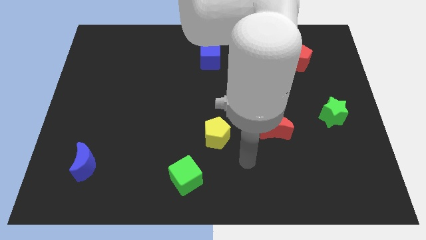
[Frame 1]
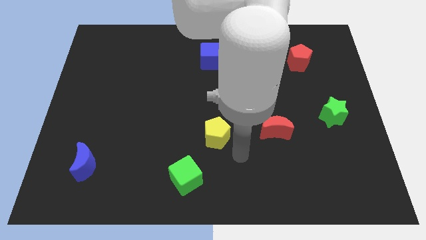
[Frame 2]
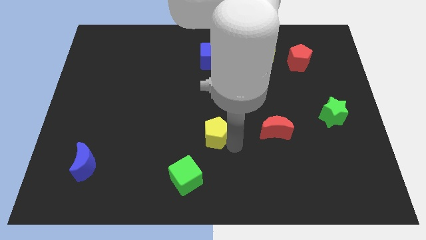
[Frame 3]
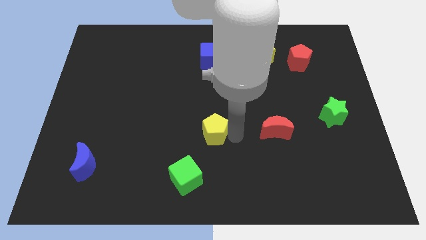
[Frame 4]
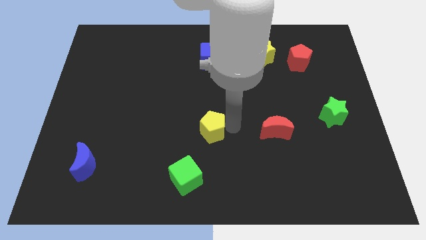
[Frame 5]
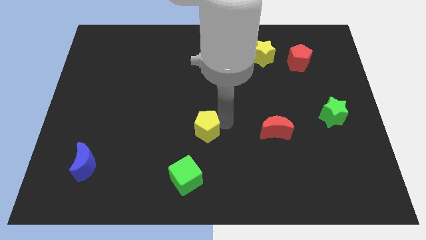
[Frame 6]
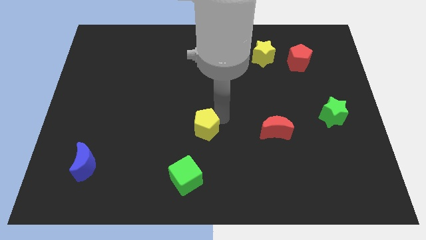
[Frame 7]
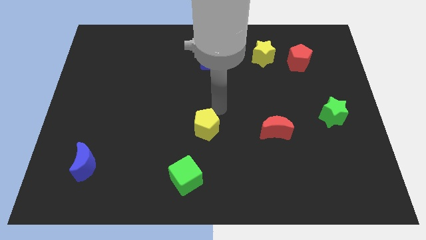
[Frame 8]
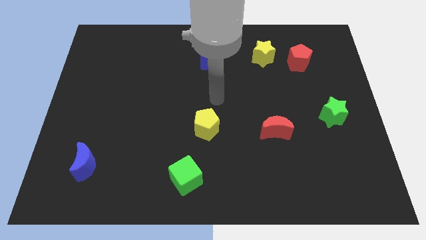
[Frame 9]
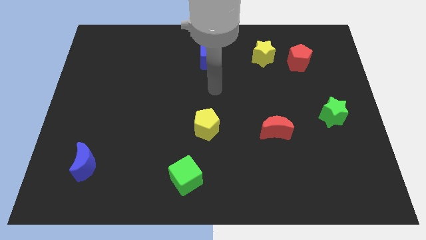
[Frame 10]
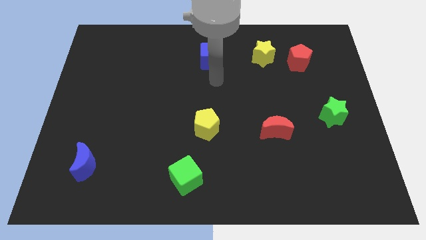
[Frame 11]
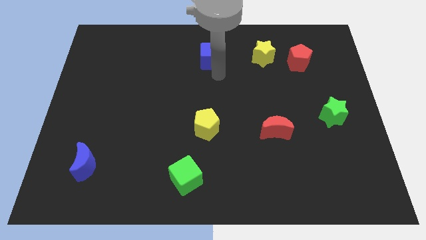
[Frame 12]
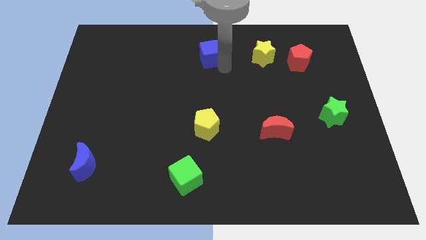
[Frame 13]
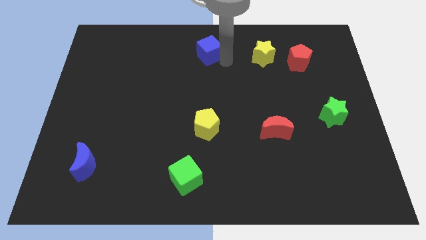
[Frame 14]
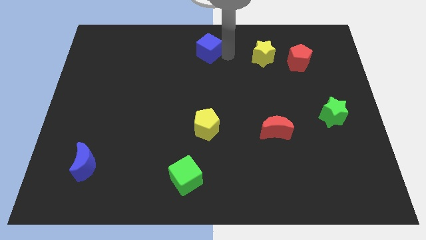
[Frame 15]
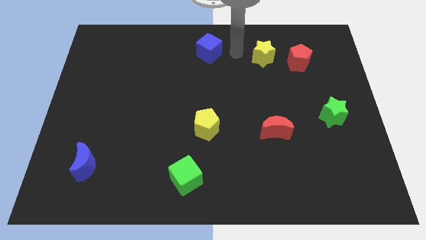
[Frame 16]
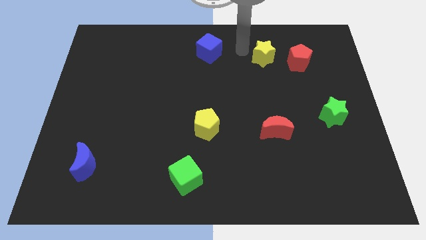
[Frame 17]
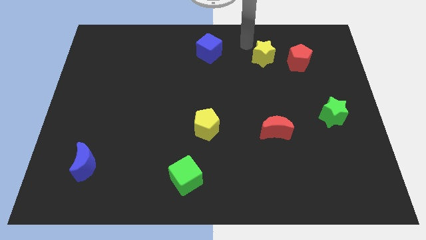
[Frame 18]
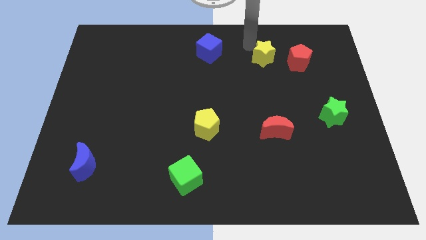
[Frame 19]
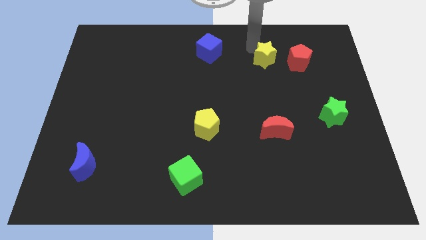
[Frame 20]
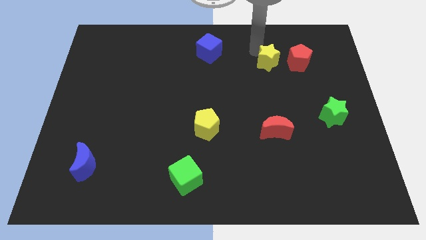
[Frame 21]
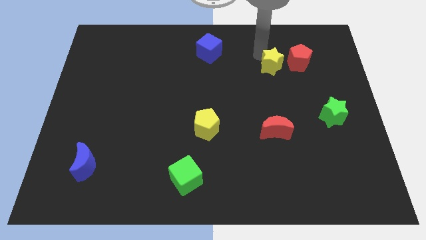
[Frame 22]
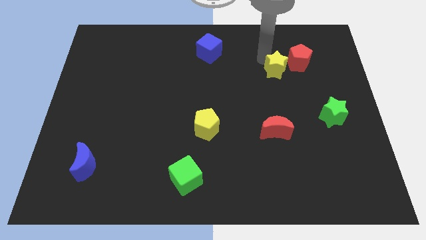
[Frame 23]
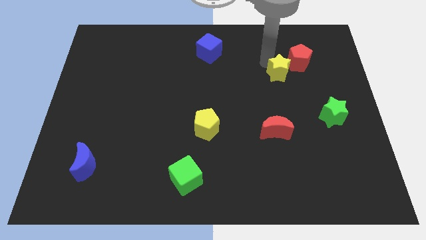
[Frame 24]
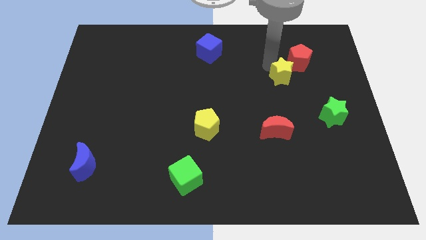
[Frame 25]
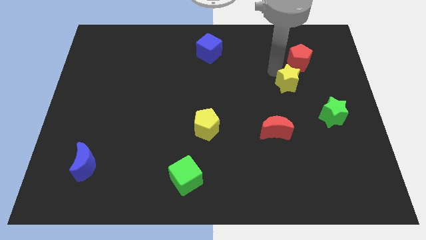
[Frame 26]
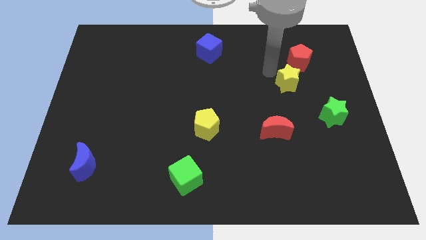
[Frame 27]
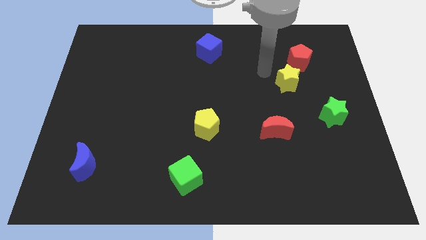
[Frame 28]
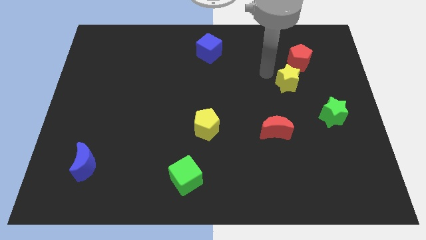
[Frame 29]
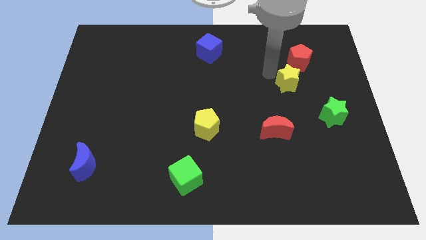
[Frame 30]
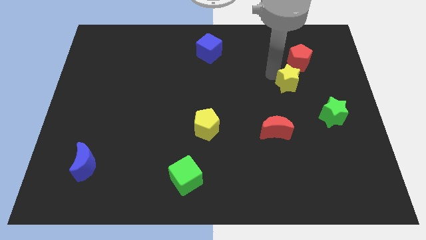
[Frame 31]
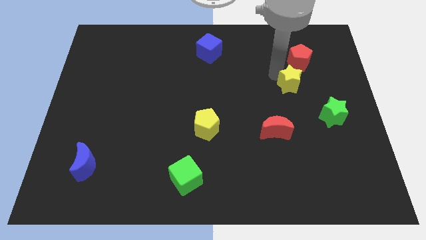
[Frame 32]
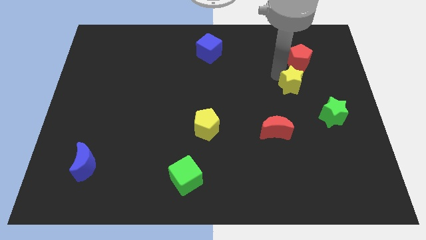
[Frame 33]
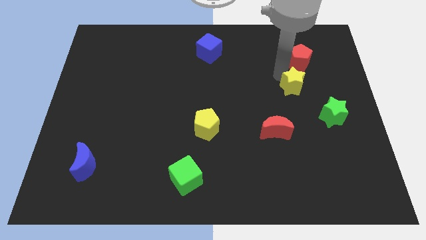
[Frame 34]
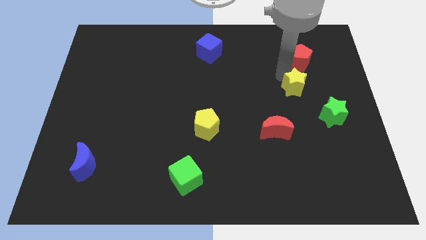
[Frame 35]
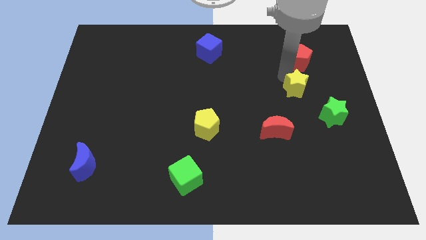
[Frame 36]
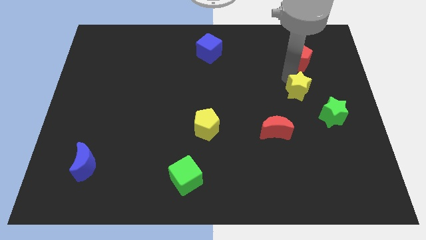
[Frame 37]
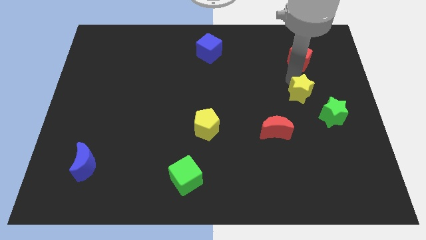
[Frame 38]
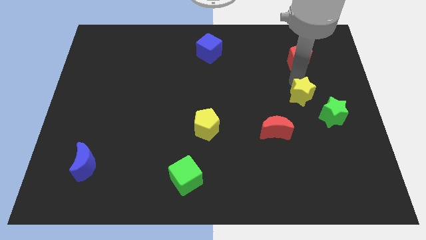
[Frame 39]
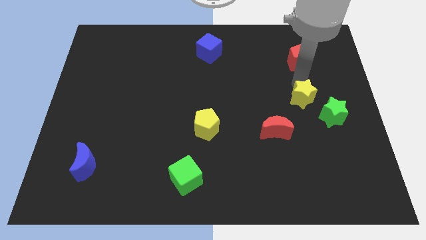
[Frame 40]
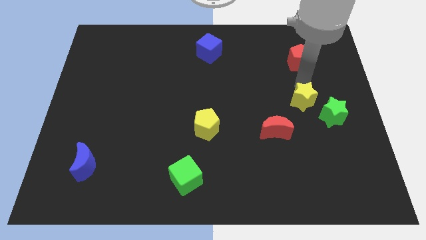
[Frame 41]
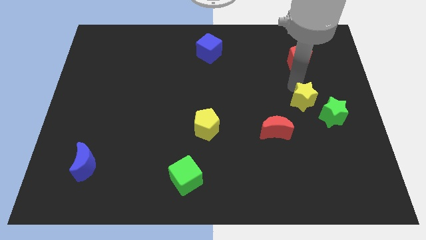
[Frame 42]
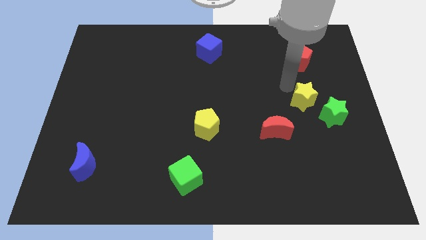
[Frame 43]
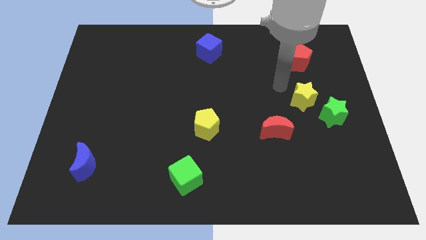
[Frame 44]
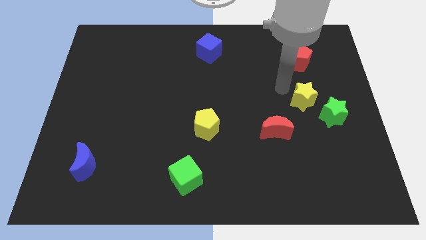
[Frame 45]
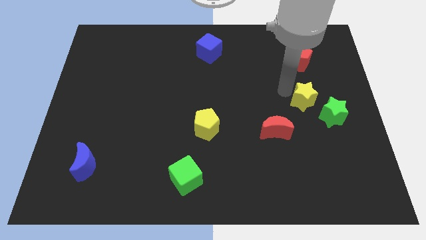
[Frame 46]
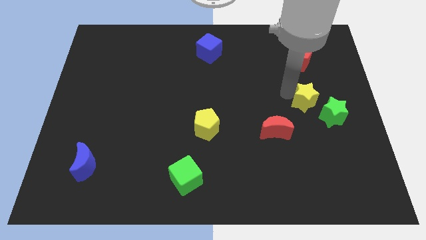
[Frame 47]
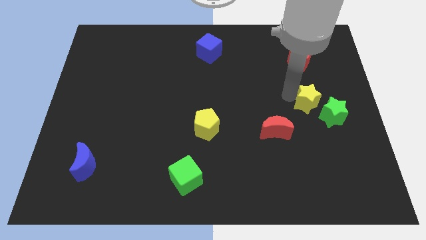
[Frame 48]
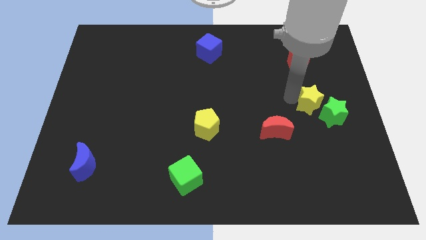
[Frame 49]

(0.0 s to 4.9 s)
slide the yellow star next to the green star

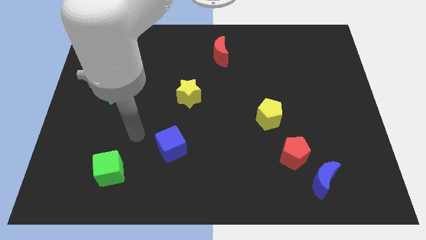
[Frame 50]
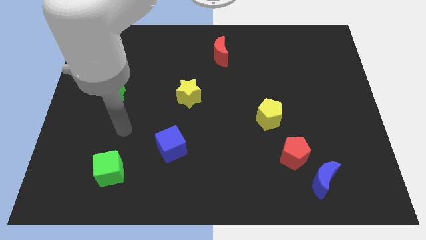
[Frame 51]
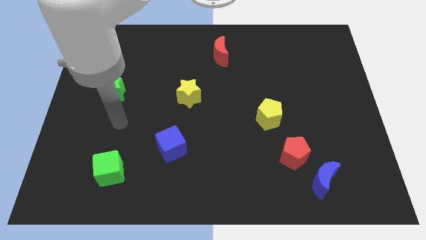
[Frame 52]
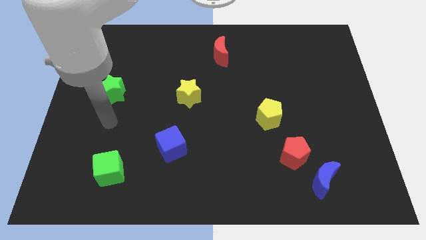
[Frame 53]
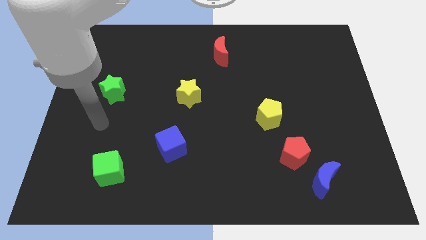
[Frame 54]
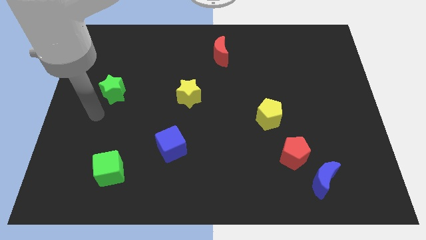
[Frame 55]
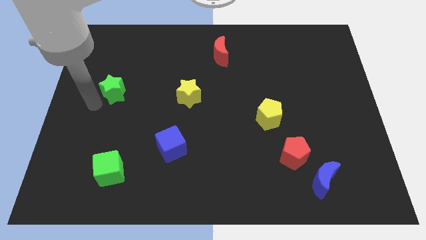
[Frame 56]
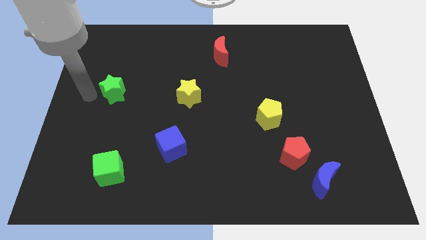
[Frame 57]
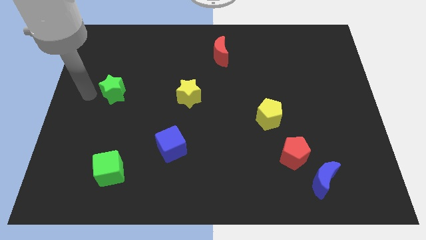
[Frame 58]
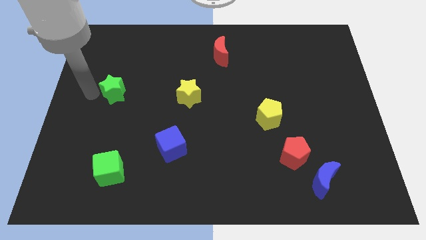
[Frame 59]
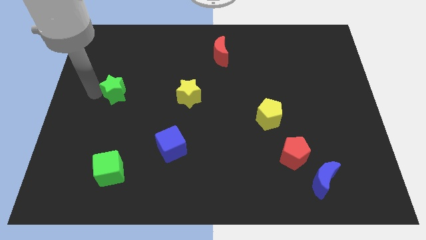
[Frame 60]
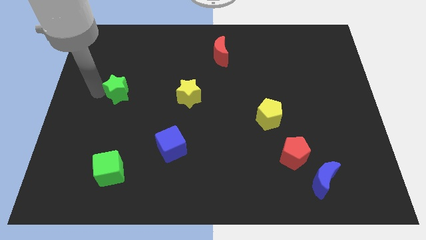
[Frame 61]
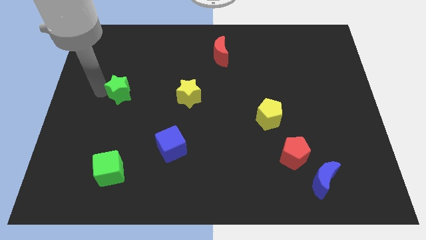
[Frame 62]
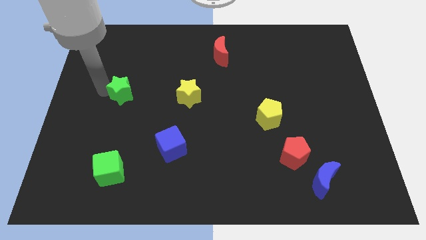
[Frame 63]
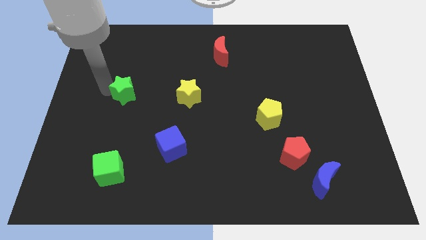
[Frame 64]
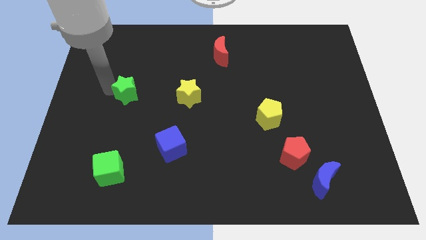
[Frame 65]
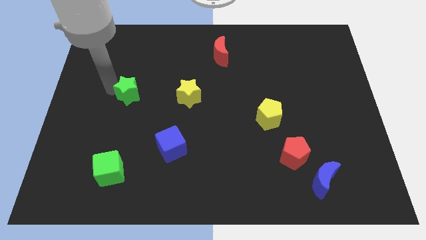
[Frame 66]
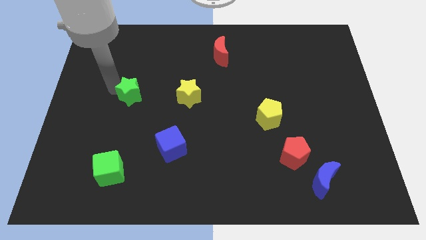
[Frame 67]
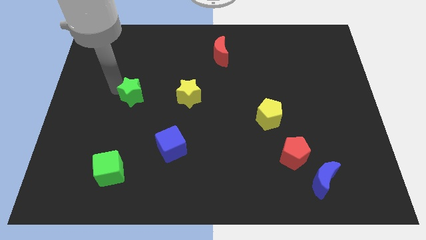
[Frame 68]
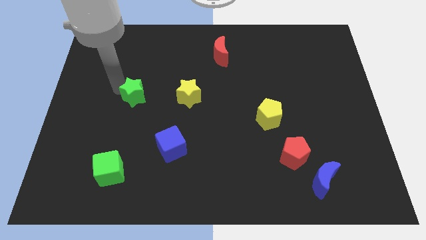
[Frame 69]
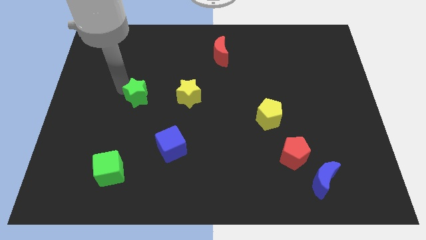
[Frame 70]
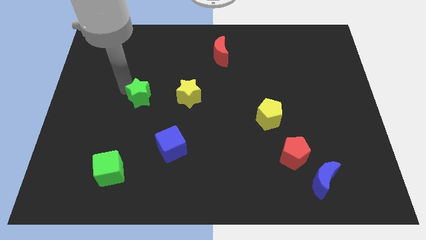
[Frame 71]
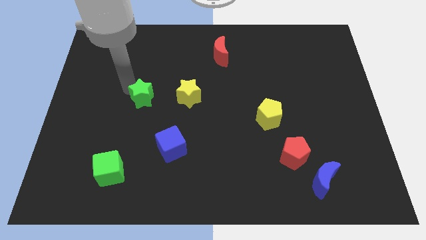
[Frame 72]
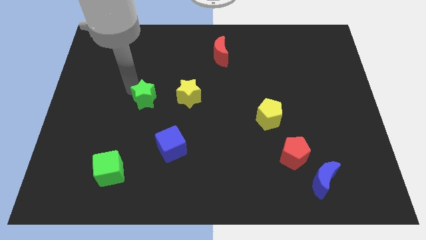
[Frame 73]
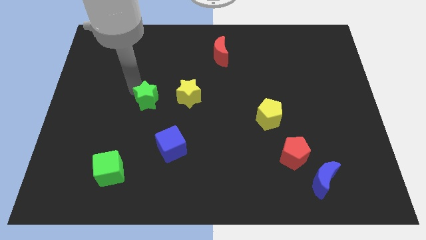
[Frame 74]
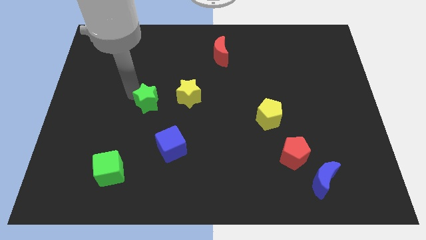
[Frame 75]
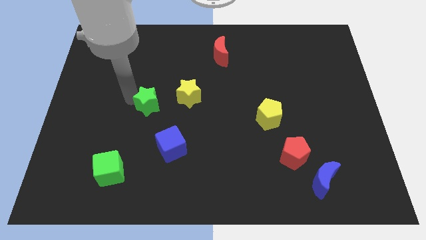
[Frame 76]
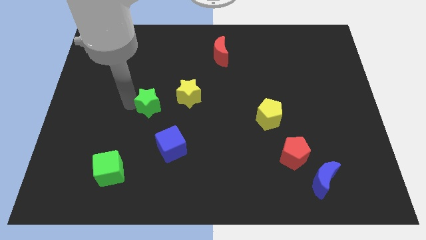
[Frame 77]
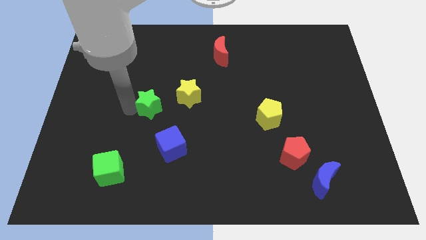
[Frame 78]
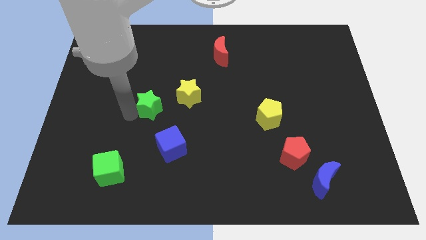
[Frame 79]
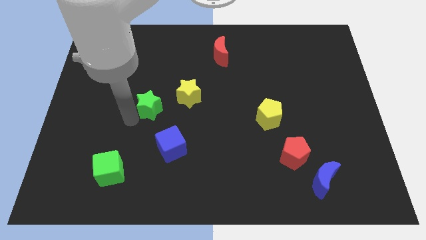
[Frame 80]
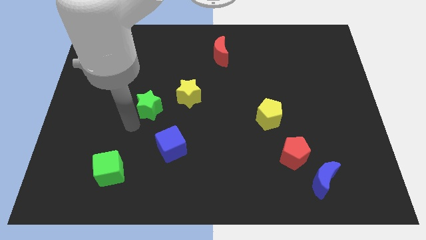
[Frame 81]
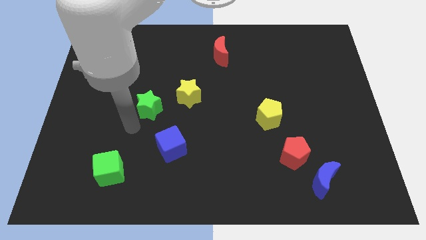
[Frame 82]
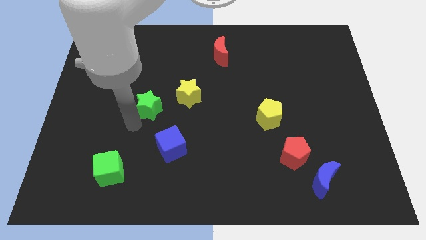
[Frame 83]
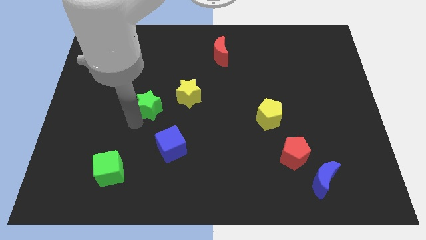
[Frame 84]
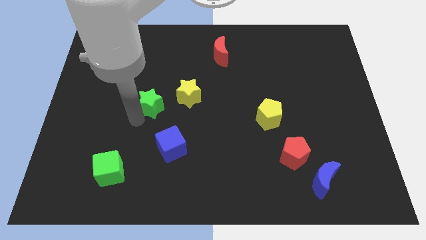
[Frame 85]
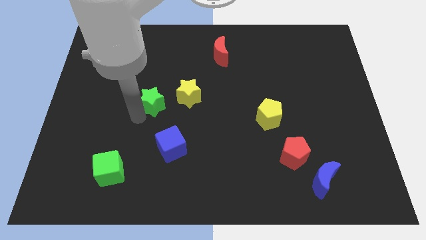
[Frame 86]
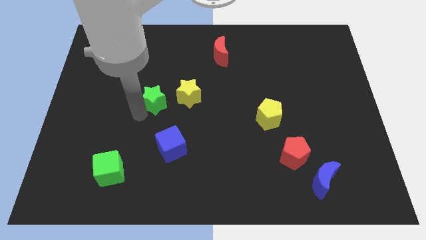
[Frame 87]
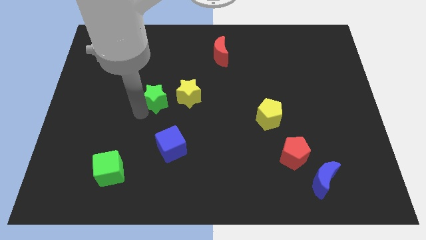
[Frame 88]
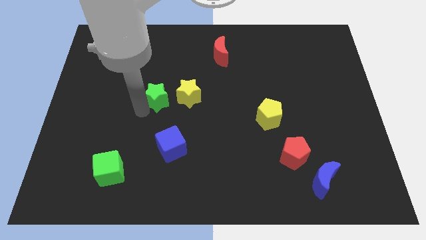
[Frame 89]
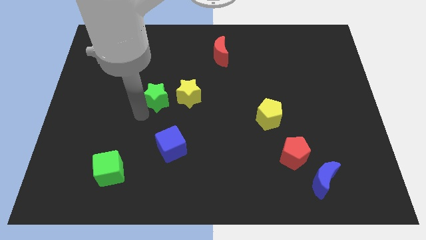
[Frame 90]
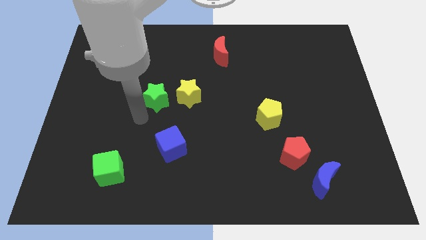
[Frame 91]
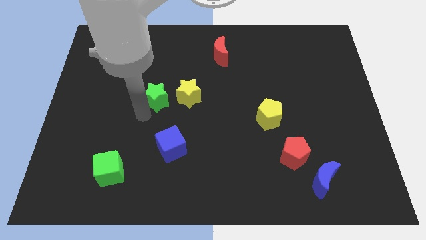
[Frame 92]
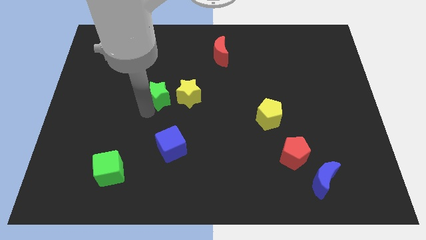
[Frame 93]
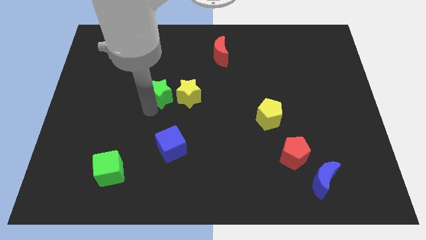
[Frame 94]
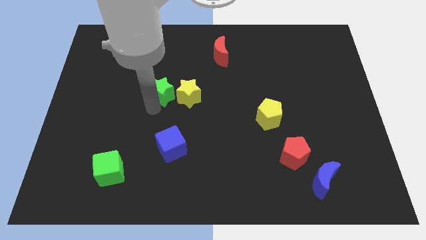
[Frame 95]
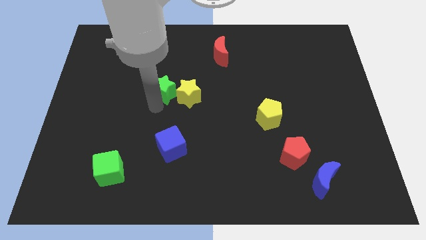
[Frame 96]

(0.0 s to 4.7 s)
put the green star close to the yellow star
